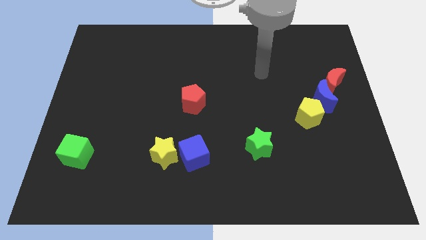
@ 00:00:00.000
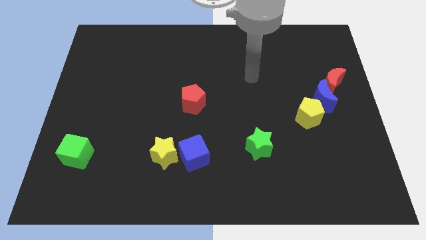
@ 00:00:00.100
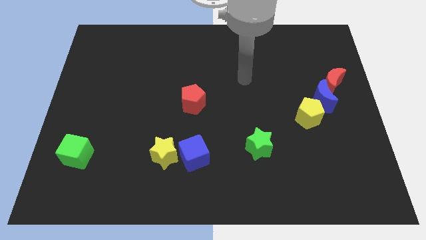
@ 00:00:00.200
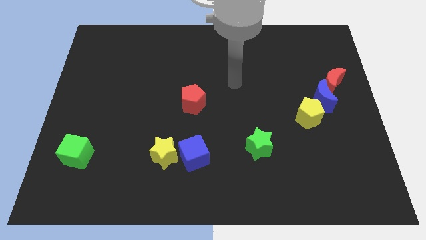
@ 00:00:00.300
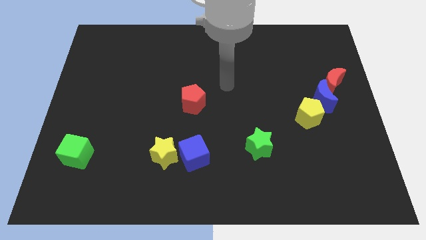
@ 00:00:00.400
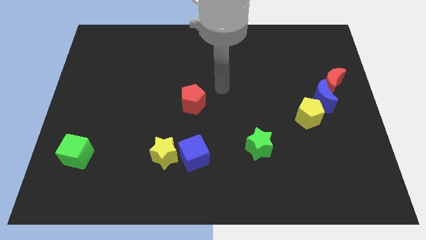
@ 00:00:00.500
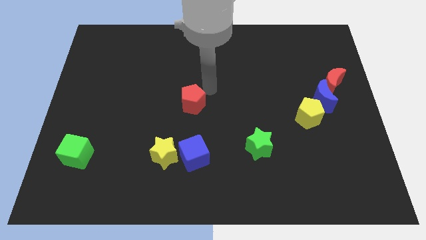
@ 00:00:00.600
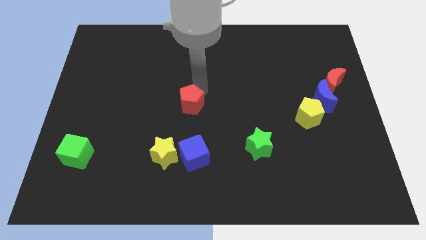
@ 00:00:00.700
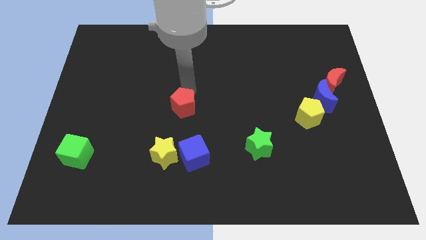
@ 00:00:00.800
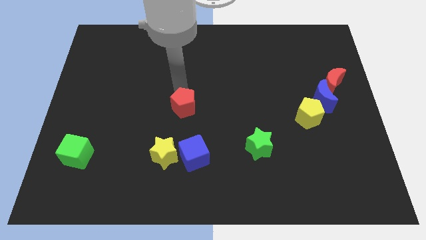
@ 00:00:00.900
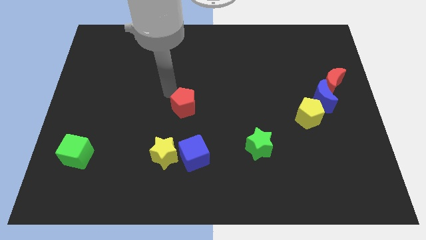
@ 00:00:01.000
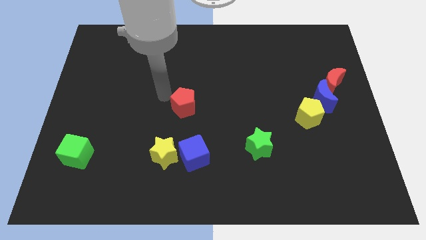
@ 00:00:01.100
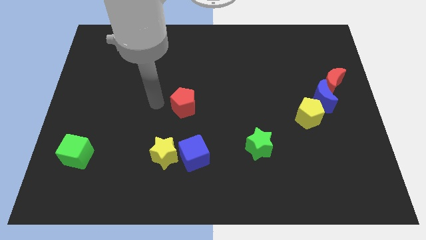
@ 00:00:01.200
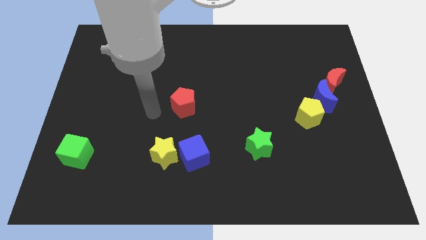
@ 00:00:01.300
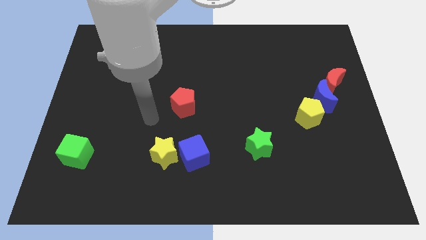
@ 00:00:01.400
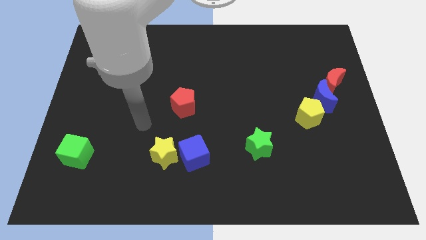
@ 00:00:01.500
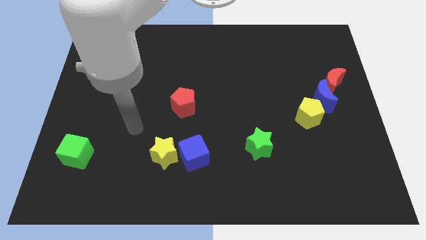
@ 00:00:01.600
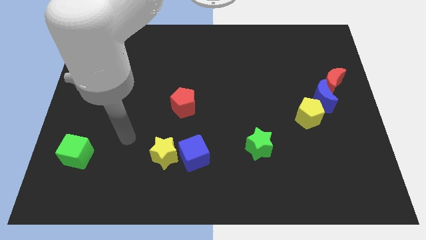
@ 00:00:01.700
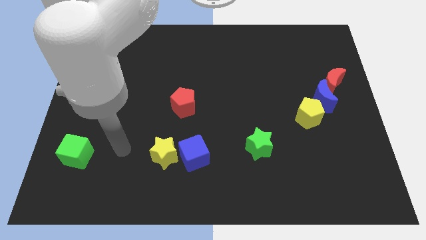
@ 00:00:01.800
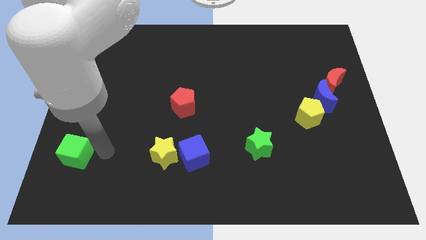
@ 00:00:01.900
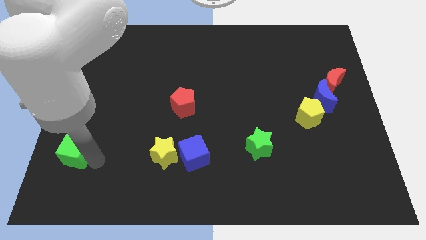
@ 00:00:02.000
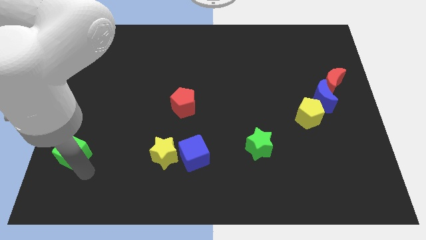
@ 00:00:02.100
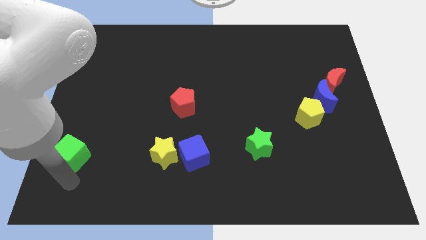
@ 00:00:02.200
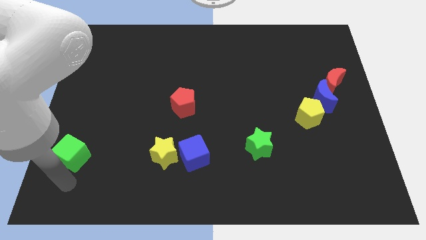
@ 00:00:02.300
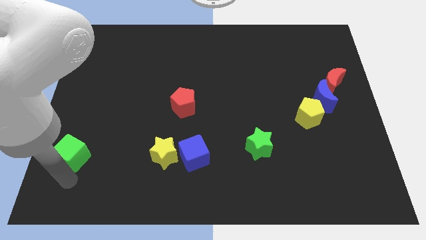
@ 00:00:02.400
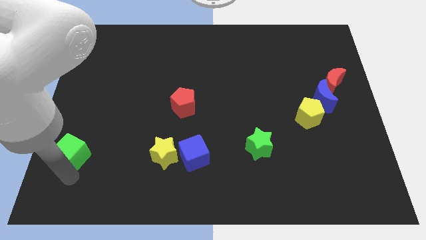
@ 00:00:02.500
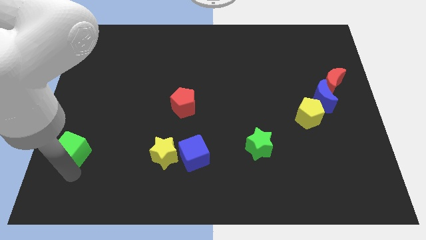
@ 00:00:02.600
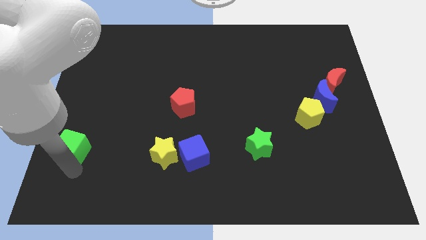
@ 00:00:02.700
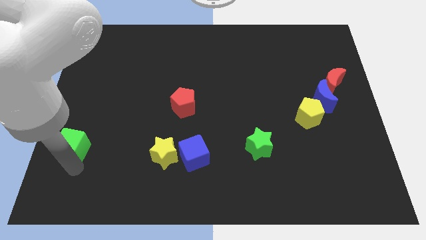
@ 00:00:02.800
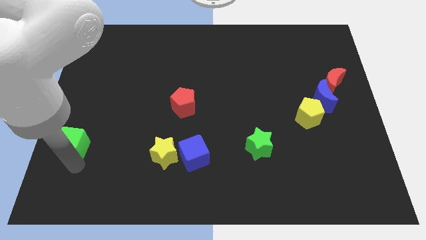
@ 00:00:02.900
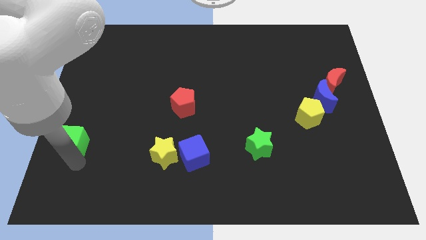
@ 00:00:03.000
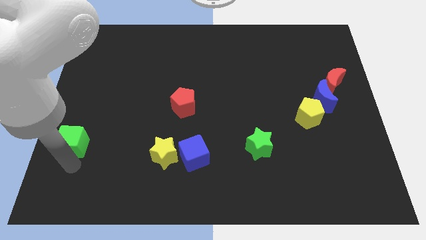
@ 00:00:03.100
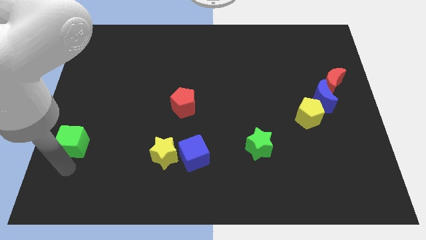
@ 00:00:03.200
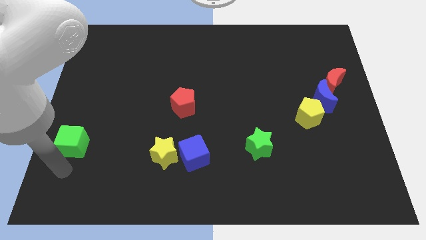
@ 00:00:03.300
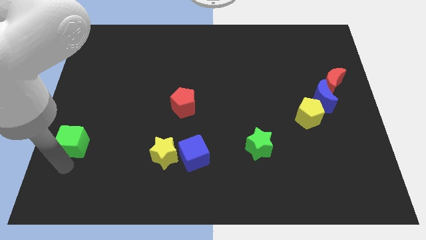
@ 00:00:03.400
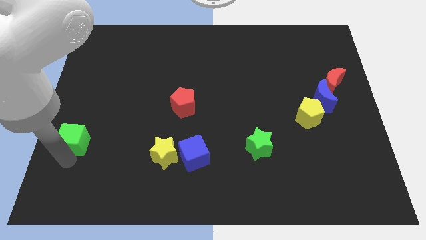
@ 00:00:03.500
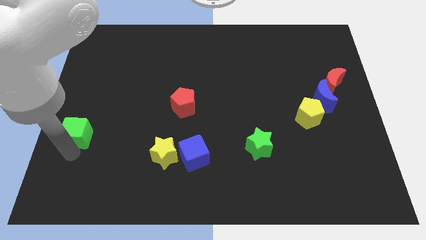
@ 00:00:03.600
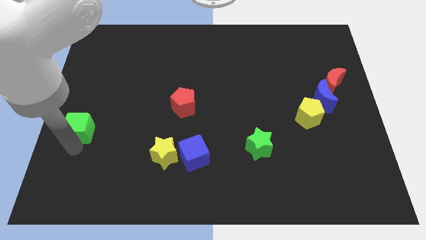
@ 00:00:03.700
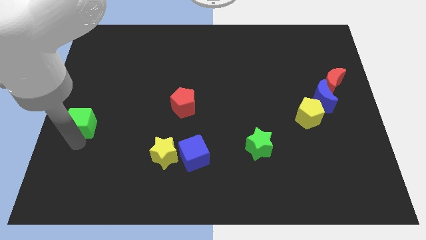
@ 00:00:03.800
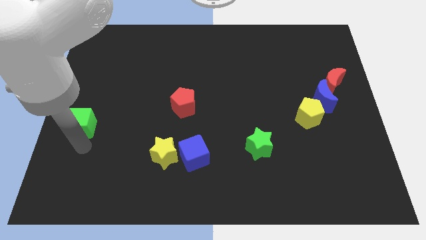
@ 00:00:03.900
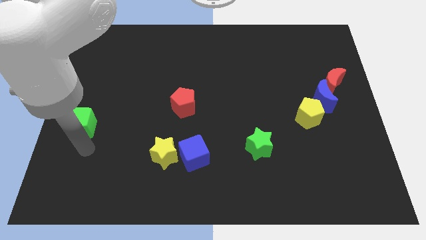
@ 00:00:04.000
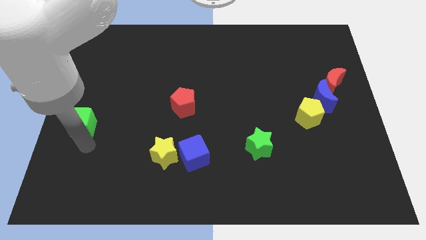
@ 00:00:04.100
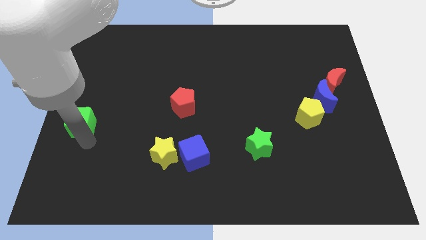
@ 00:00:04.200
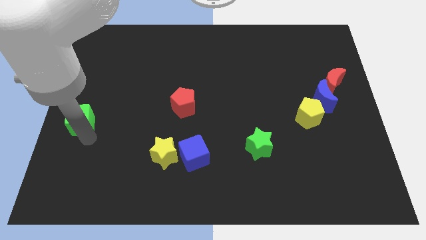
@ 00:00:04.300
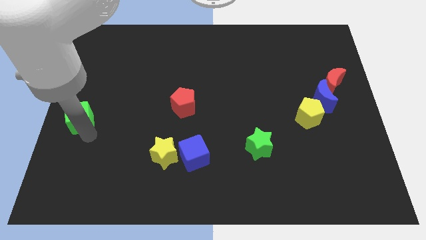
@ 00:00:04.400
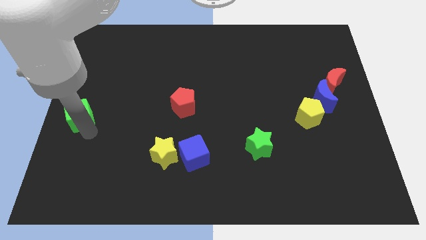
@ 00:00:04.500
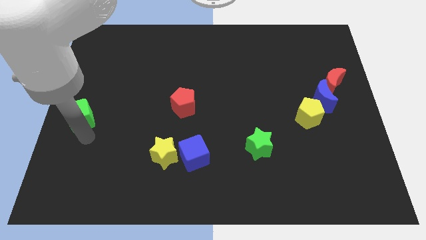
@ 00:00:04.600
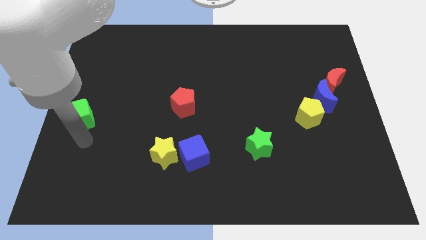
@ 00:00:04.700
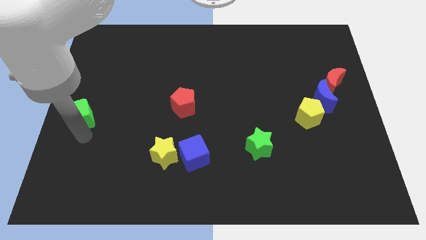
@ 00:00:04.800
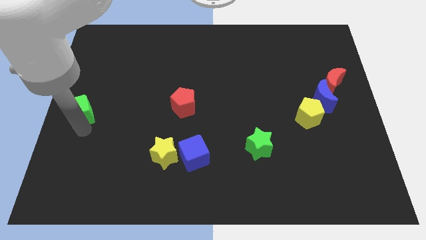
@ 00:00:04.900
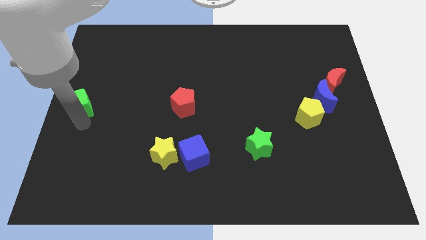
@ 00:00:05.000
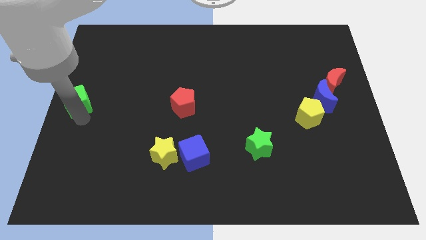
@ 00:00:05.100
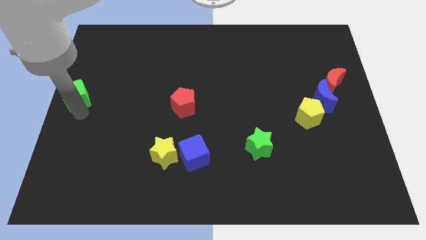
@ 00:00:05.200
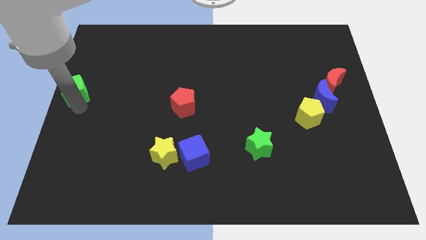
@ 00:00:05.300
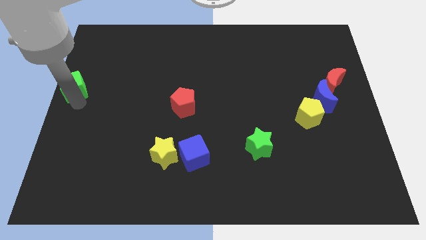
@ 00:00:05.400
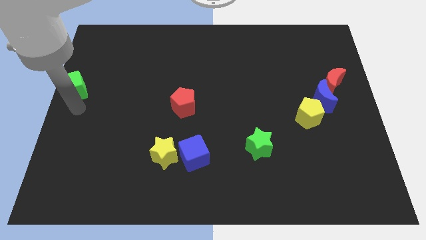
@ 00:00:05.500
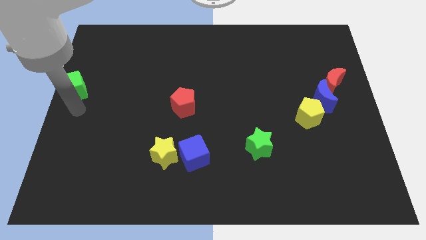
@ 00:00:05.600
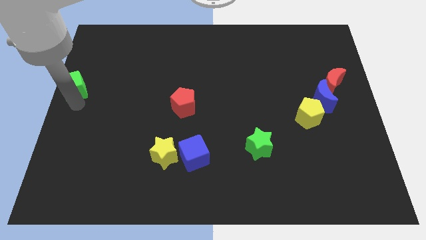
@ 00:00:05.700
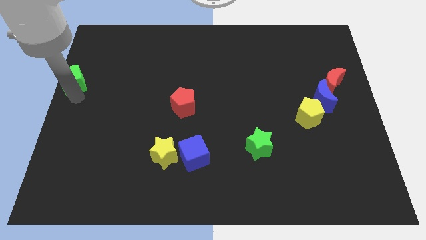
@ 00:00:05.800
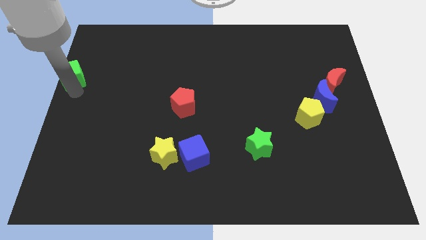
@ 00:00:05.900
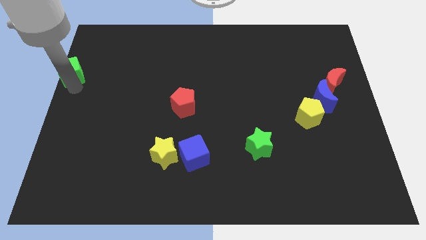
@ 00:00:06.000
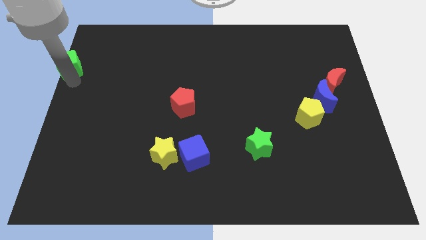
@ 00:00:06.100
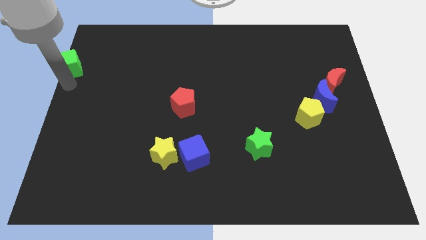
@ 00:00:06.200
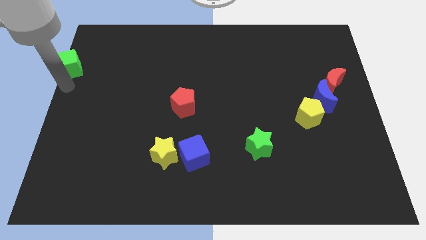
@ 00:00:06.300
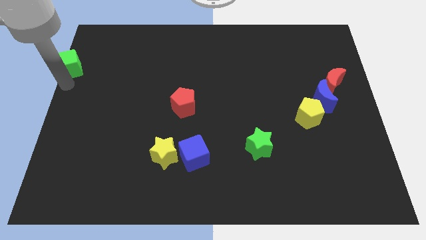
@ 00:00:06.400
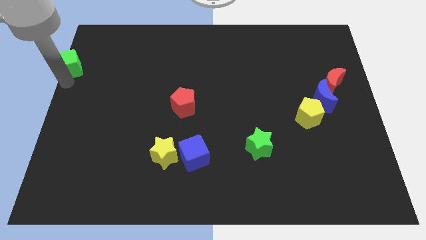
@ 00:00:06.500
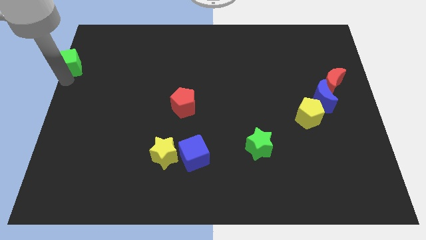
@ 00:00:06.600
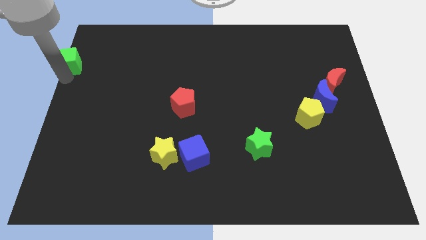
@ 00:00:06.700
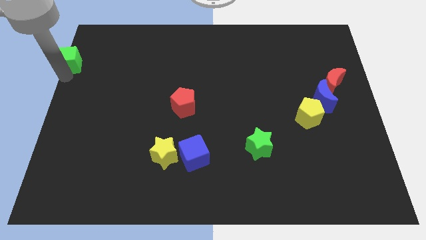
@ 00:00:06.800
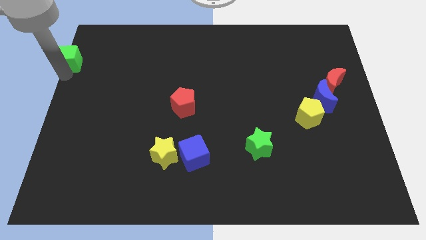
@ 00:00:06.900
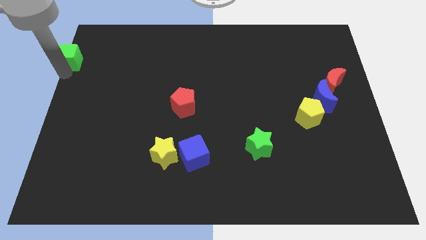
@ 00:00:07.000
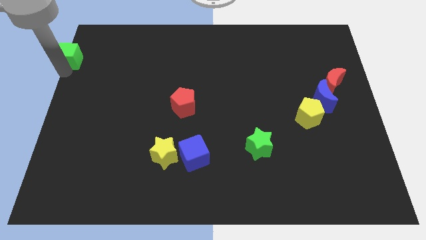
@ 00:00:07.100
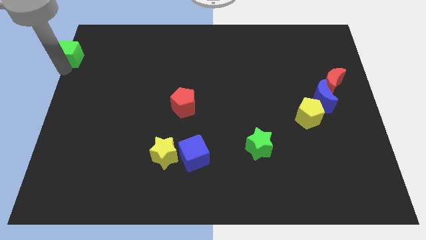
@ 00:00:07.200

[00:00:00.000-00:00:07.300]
push the green cube to the upper left corner
